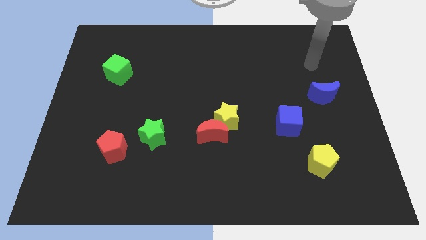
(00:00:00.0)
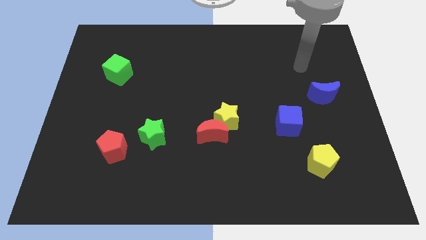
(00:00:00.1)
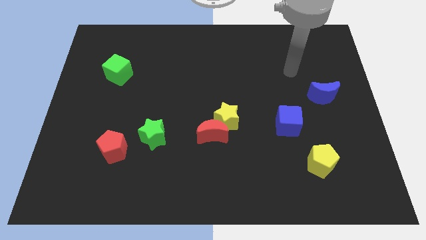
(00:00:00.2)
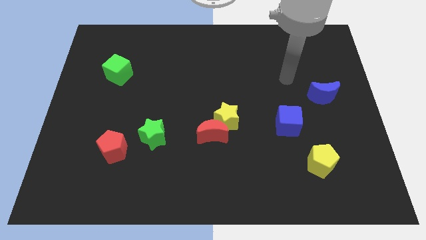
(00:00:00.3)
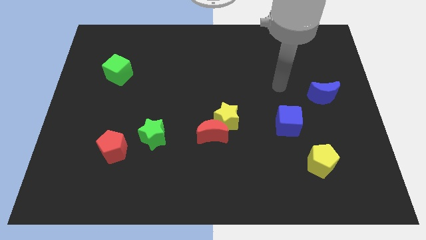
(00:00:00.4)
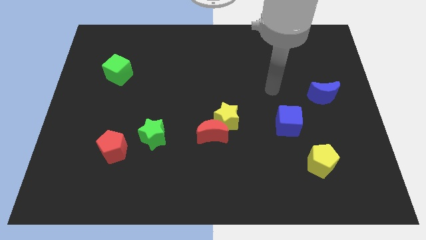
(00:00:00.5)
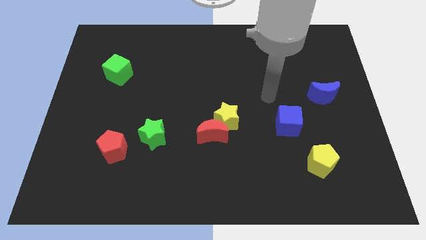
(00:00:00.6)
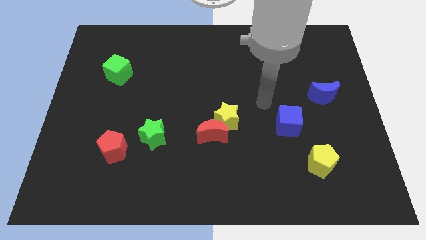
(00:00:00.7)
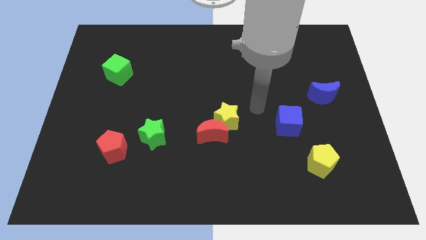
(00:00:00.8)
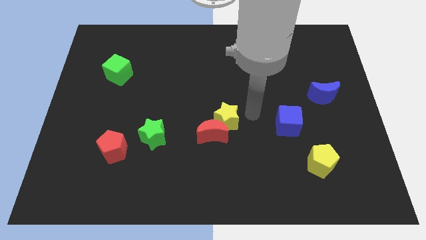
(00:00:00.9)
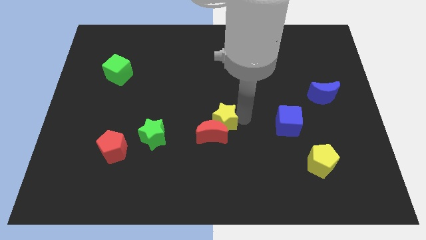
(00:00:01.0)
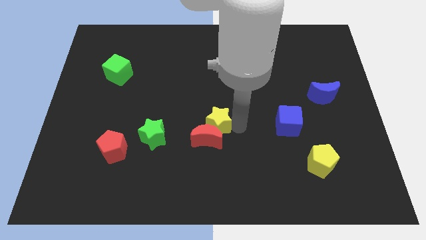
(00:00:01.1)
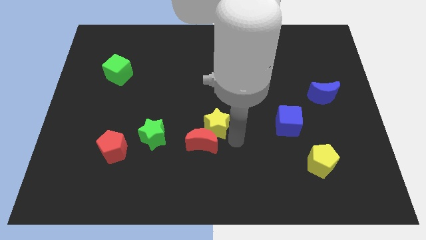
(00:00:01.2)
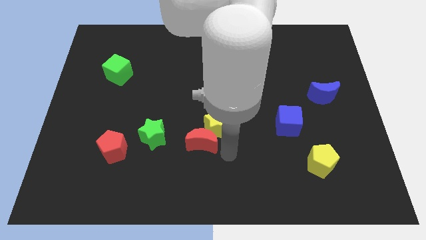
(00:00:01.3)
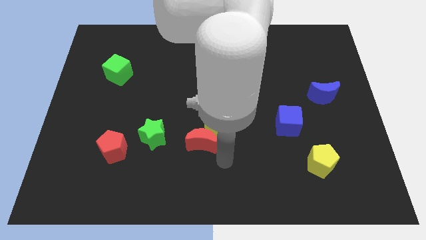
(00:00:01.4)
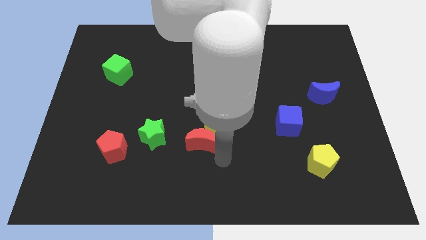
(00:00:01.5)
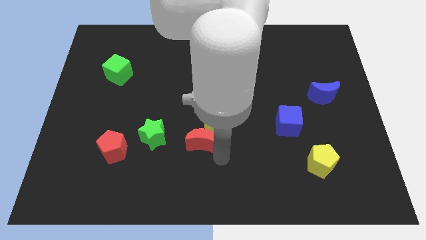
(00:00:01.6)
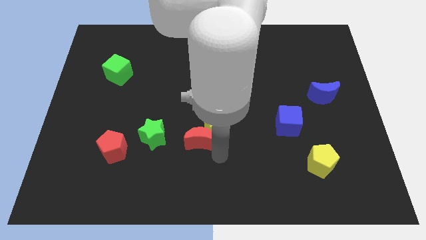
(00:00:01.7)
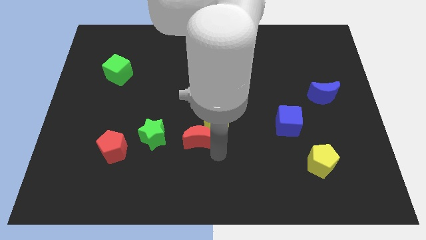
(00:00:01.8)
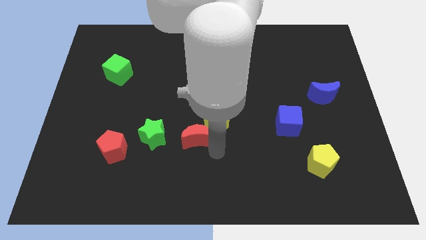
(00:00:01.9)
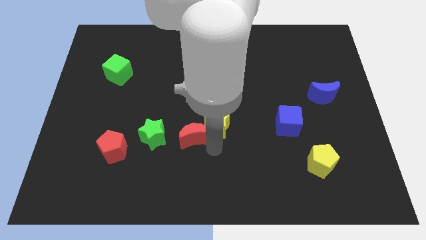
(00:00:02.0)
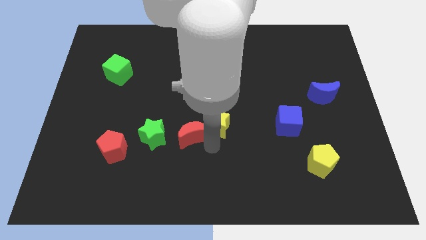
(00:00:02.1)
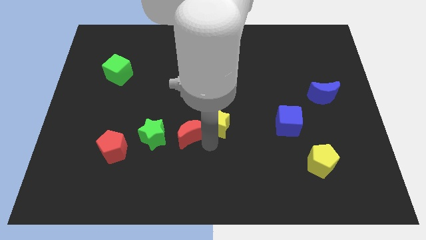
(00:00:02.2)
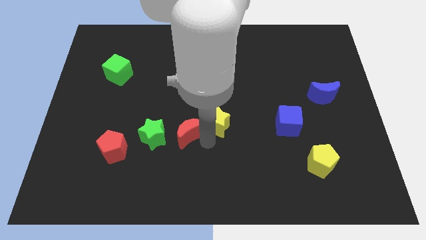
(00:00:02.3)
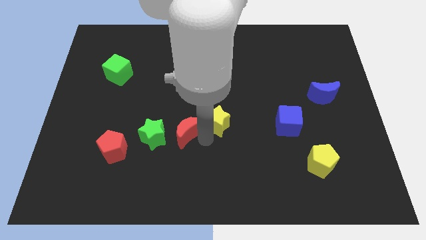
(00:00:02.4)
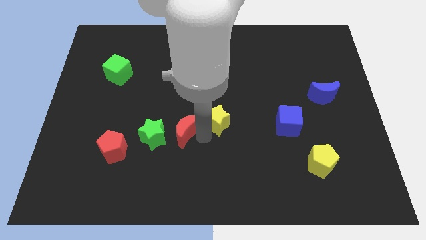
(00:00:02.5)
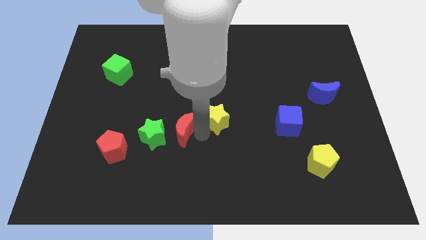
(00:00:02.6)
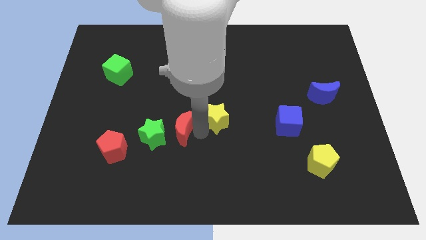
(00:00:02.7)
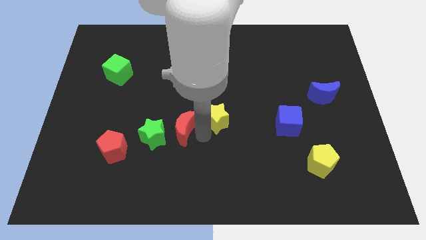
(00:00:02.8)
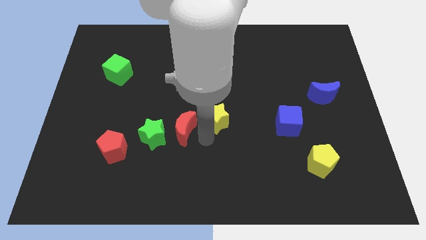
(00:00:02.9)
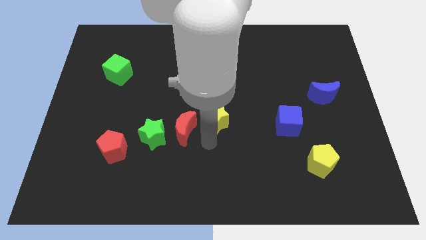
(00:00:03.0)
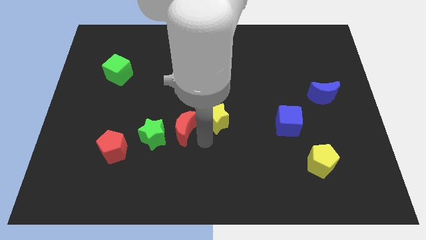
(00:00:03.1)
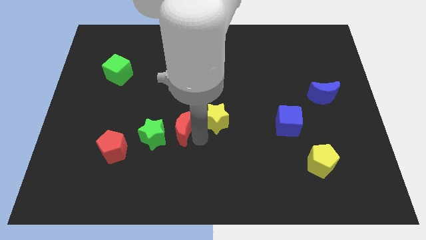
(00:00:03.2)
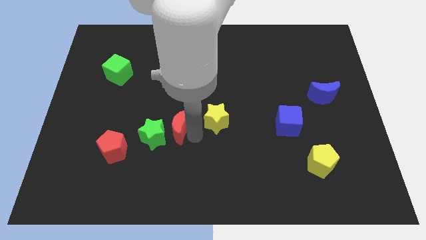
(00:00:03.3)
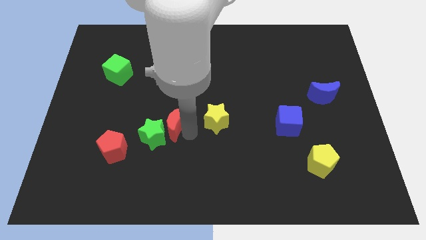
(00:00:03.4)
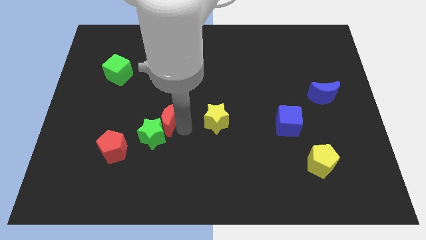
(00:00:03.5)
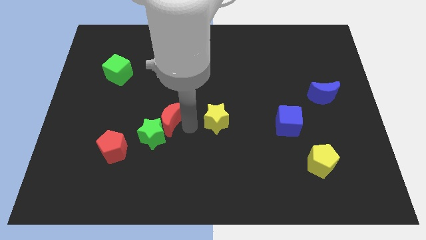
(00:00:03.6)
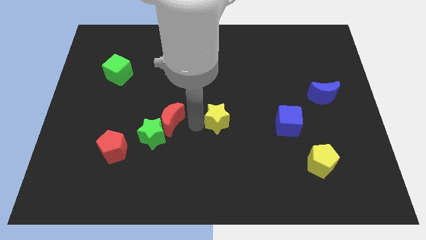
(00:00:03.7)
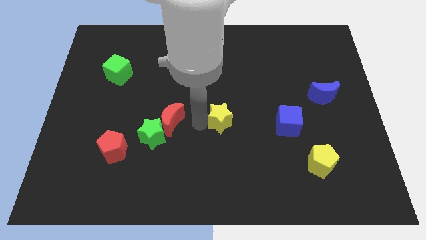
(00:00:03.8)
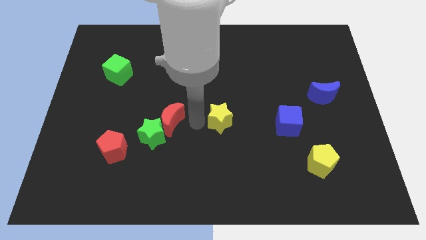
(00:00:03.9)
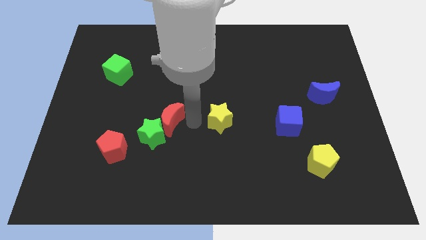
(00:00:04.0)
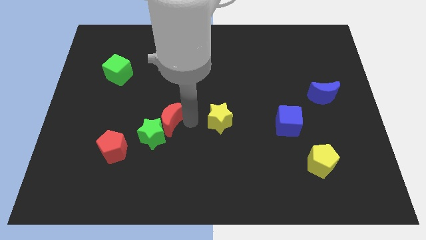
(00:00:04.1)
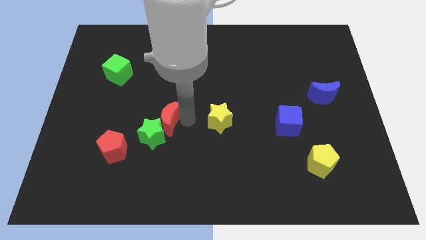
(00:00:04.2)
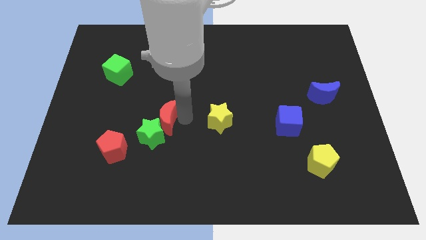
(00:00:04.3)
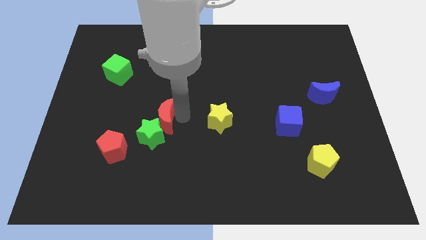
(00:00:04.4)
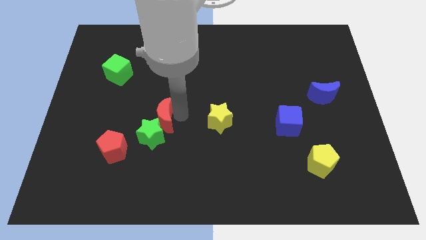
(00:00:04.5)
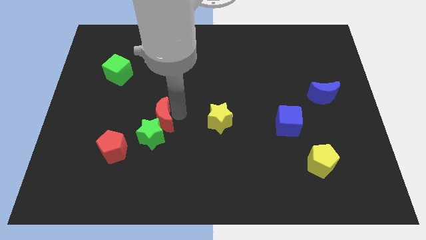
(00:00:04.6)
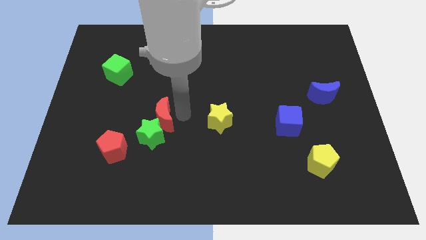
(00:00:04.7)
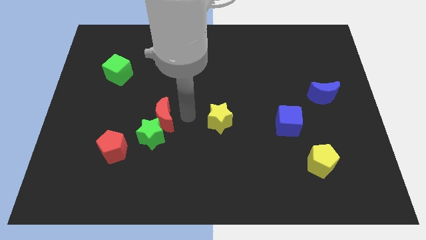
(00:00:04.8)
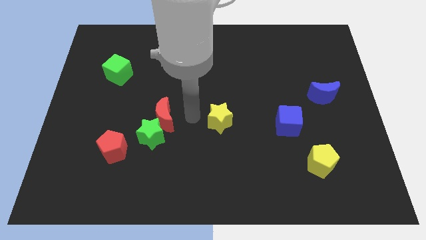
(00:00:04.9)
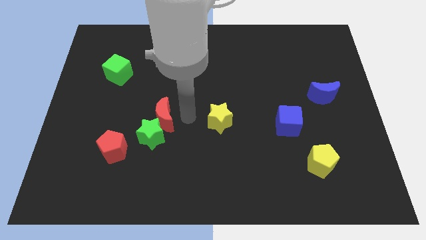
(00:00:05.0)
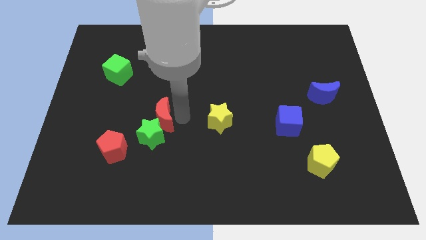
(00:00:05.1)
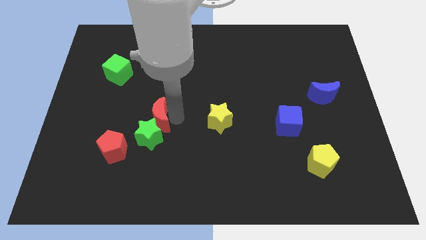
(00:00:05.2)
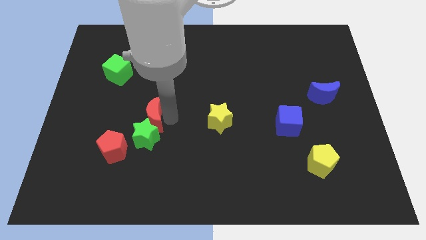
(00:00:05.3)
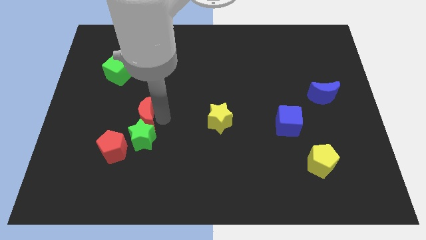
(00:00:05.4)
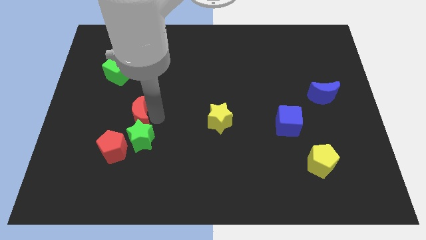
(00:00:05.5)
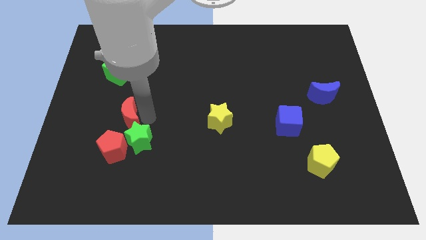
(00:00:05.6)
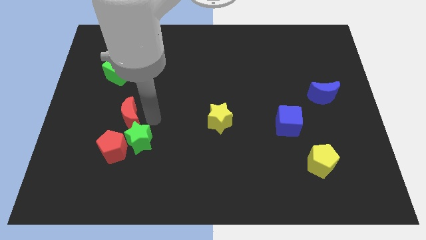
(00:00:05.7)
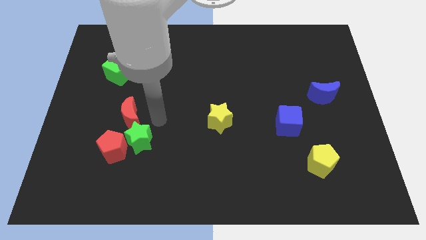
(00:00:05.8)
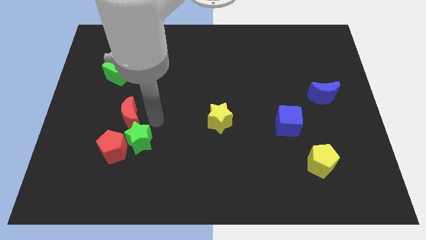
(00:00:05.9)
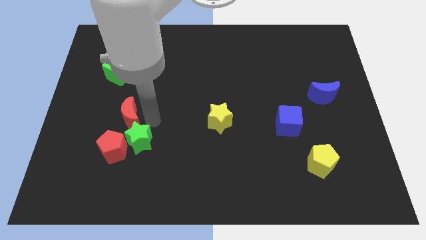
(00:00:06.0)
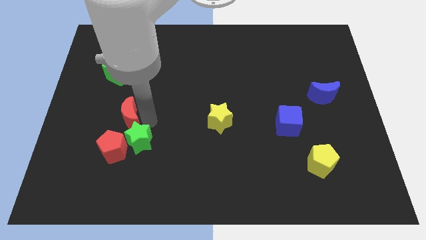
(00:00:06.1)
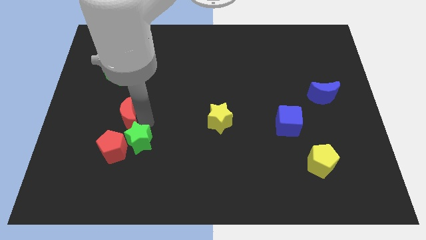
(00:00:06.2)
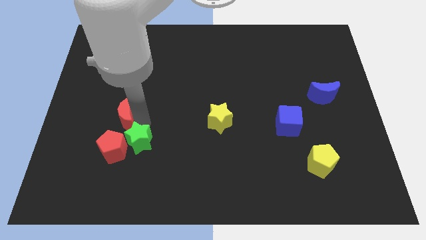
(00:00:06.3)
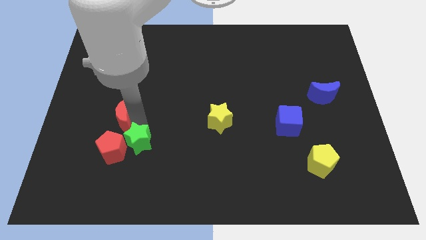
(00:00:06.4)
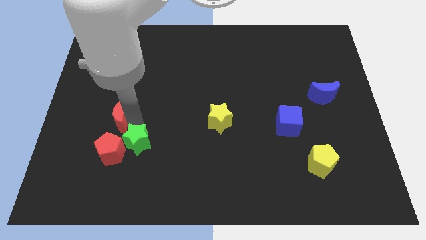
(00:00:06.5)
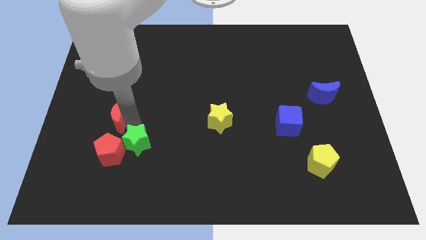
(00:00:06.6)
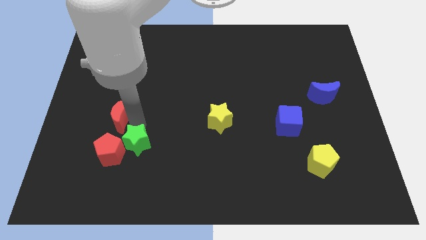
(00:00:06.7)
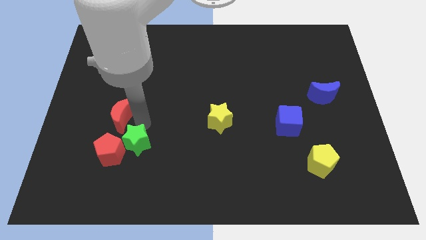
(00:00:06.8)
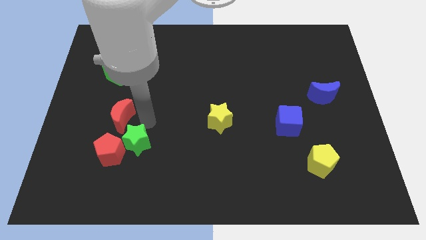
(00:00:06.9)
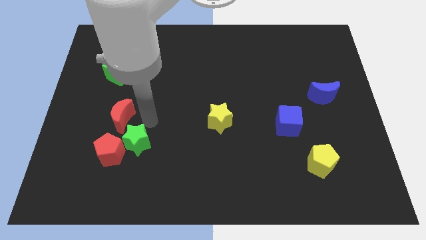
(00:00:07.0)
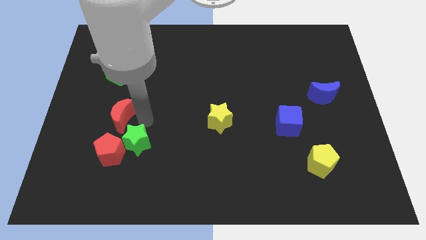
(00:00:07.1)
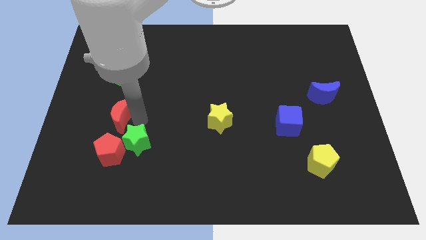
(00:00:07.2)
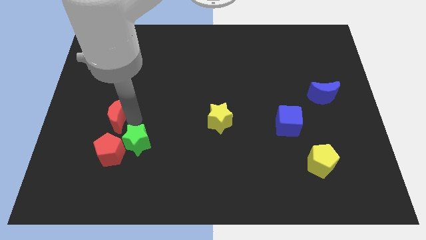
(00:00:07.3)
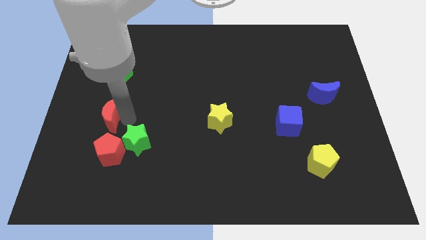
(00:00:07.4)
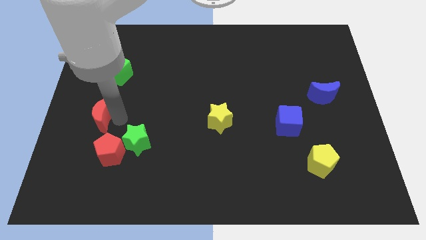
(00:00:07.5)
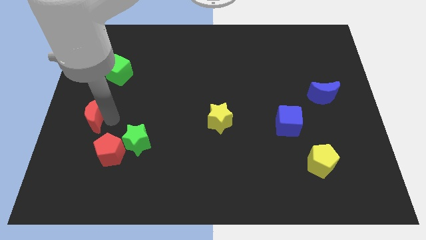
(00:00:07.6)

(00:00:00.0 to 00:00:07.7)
push the red moon to the left side
